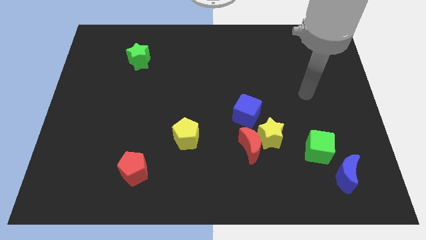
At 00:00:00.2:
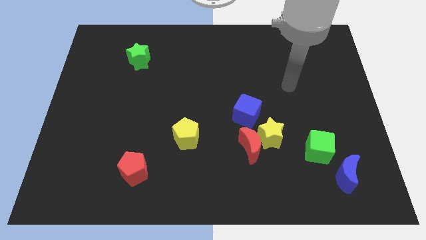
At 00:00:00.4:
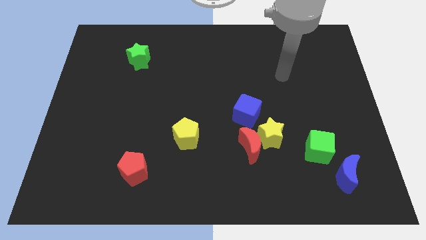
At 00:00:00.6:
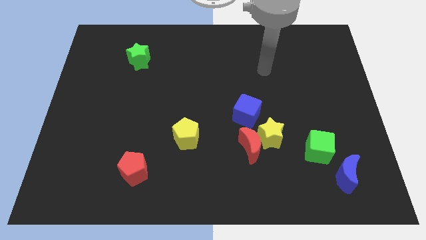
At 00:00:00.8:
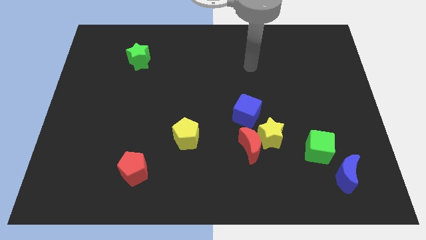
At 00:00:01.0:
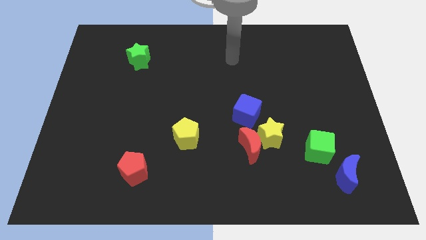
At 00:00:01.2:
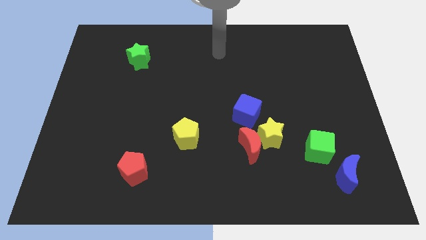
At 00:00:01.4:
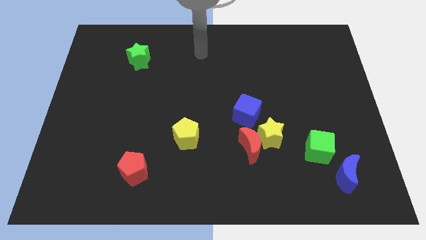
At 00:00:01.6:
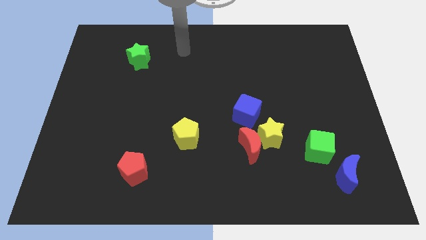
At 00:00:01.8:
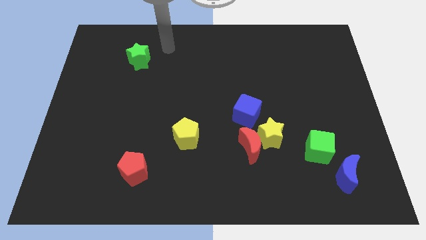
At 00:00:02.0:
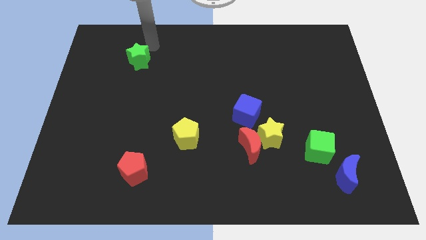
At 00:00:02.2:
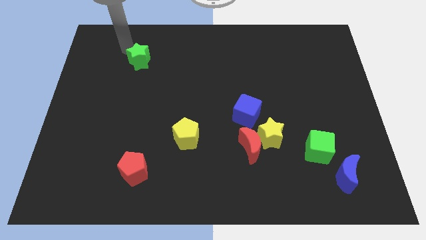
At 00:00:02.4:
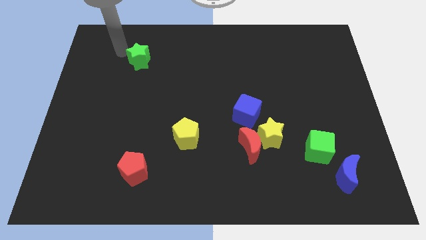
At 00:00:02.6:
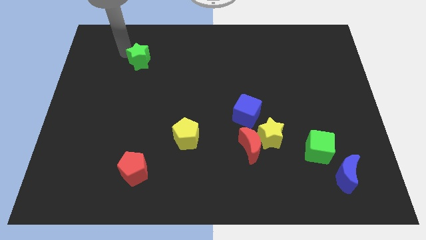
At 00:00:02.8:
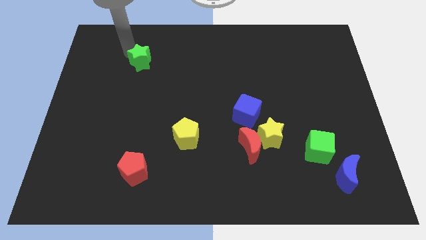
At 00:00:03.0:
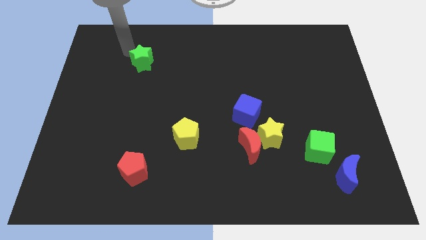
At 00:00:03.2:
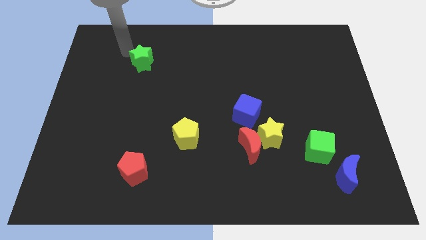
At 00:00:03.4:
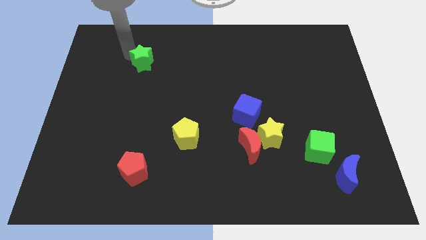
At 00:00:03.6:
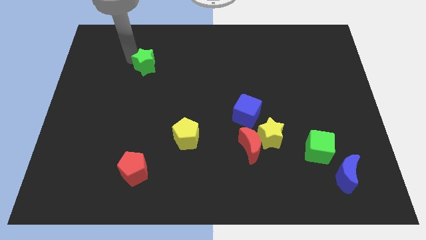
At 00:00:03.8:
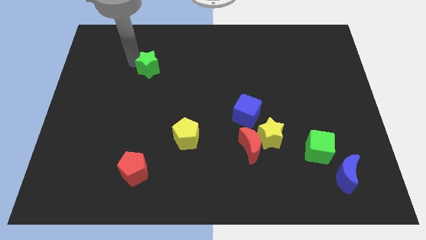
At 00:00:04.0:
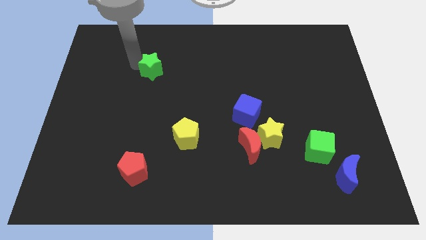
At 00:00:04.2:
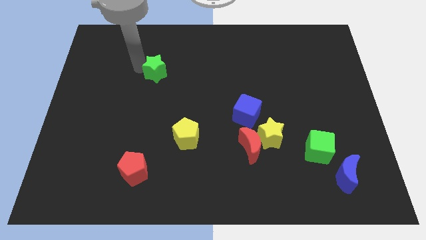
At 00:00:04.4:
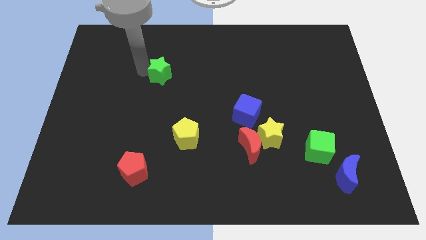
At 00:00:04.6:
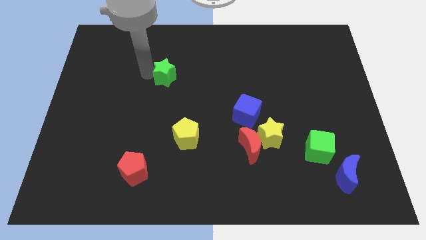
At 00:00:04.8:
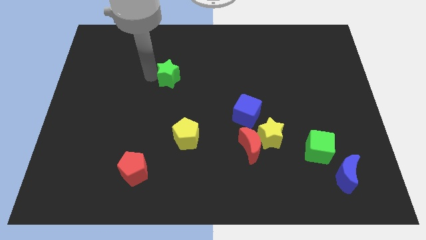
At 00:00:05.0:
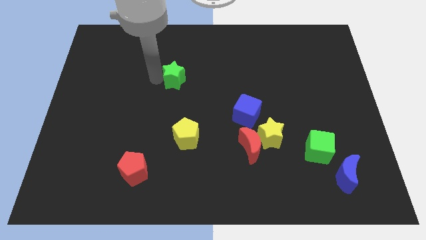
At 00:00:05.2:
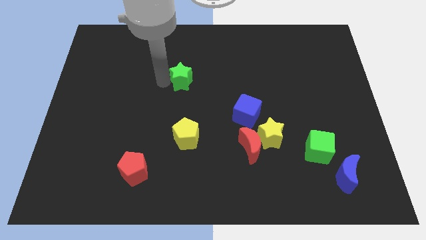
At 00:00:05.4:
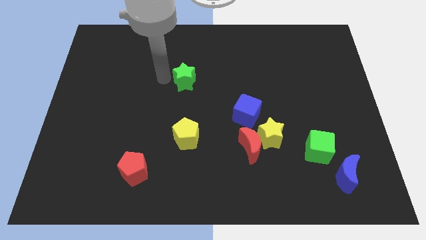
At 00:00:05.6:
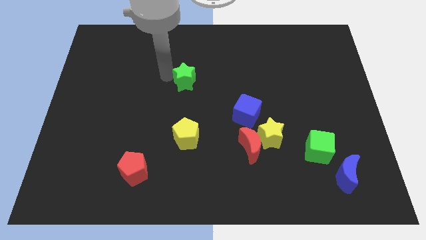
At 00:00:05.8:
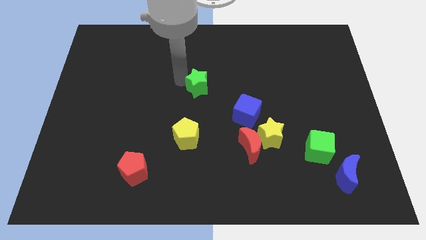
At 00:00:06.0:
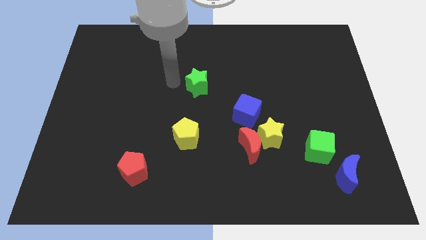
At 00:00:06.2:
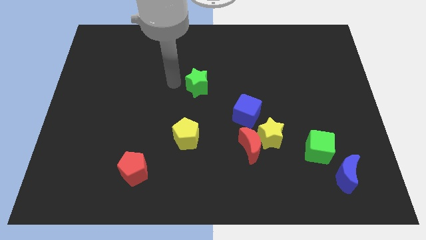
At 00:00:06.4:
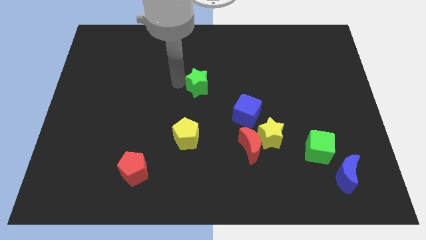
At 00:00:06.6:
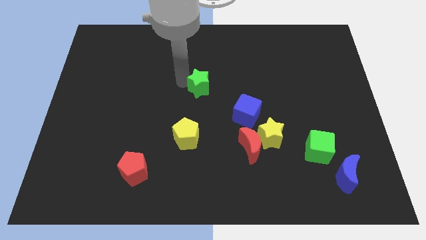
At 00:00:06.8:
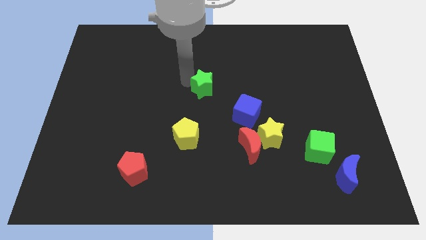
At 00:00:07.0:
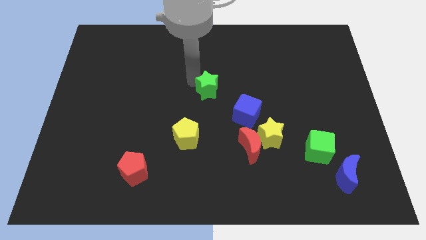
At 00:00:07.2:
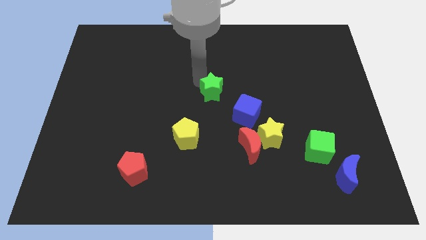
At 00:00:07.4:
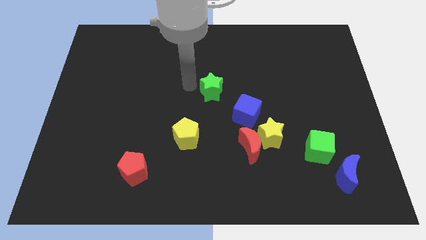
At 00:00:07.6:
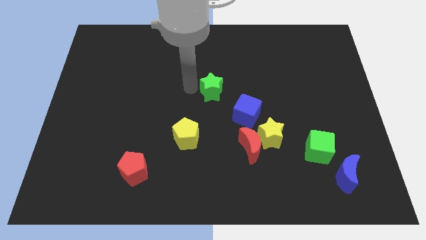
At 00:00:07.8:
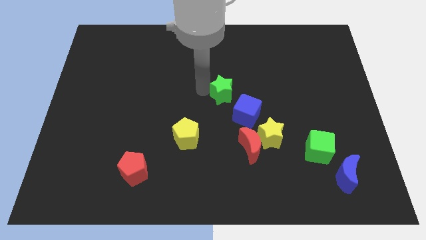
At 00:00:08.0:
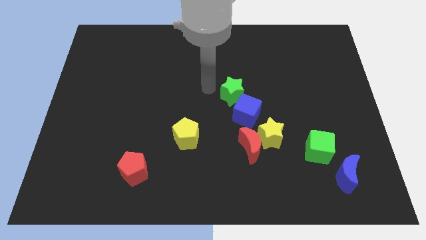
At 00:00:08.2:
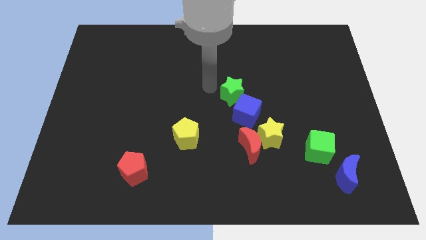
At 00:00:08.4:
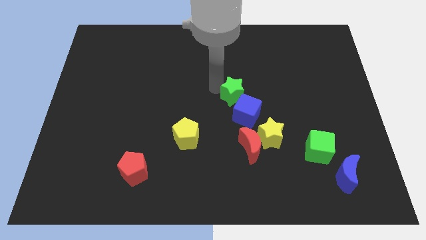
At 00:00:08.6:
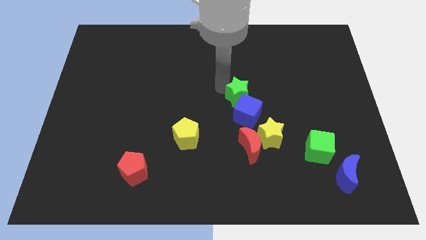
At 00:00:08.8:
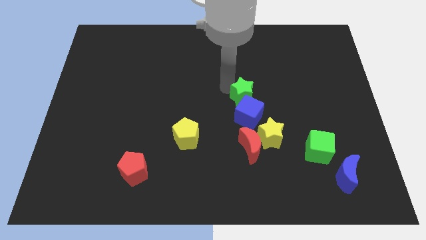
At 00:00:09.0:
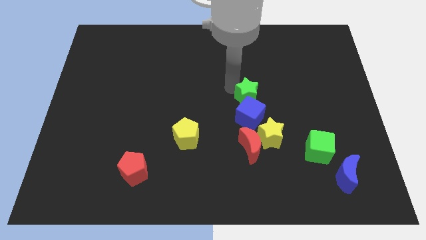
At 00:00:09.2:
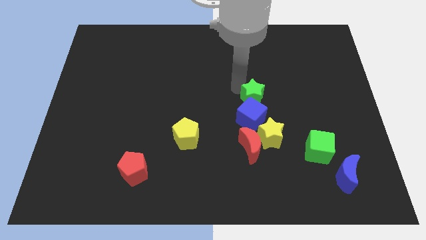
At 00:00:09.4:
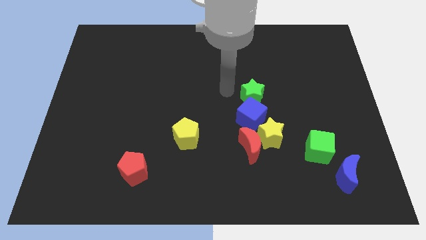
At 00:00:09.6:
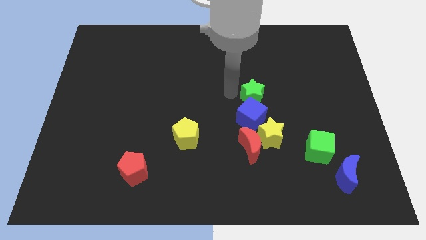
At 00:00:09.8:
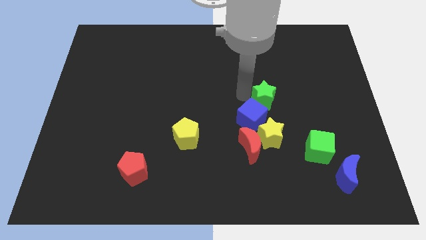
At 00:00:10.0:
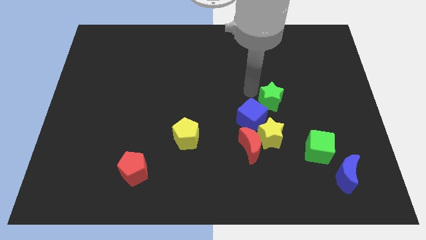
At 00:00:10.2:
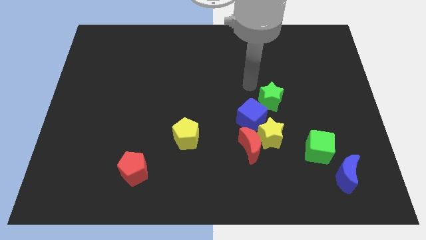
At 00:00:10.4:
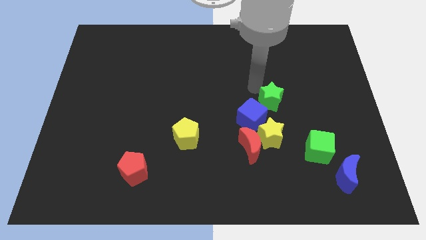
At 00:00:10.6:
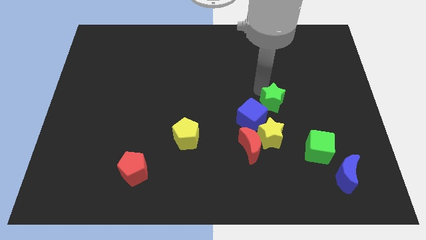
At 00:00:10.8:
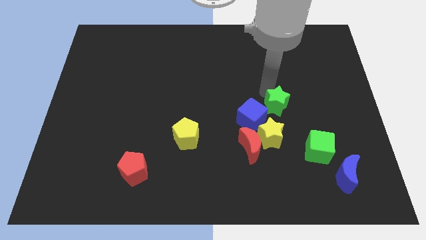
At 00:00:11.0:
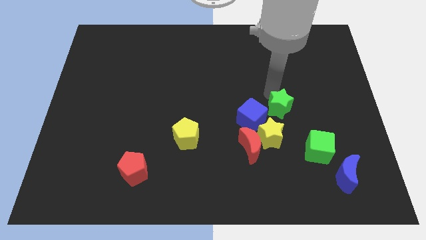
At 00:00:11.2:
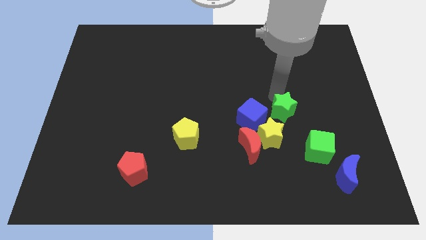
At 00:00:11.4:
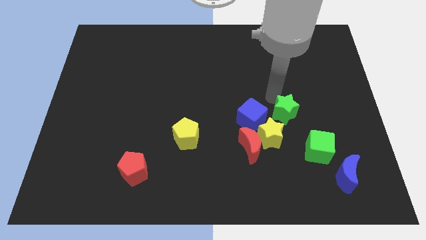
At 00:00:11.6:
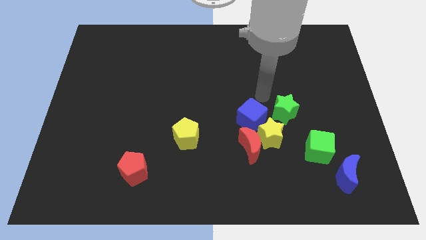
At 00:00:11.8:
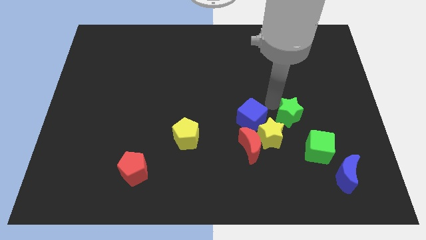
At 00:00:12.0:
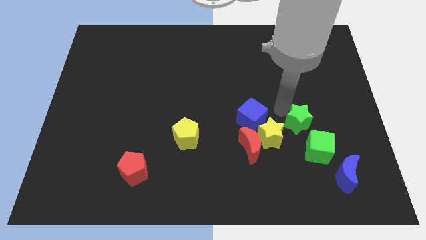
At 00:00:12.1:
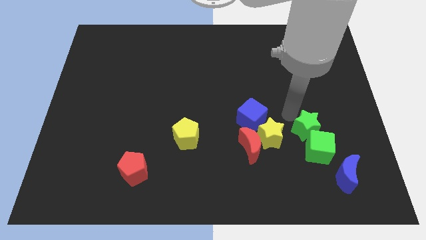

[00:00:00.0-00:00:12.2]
move the green star to the green cube

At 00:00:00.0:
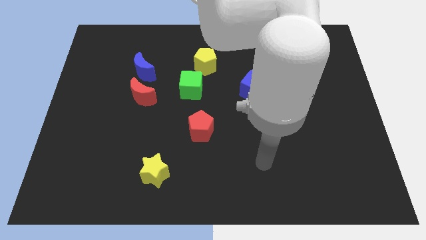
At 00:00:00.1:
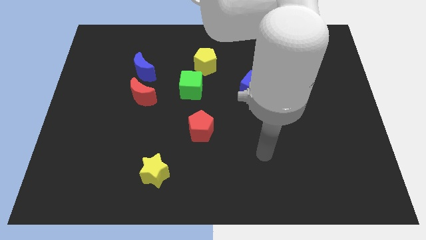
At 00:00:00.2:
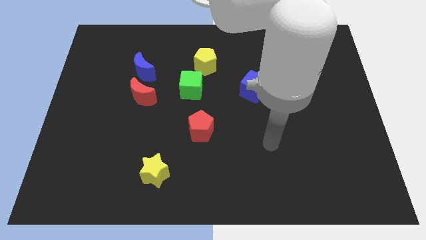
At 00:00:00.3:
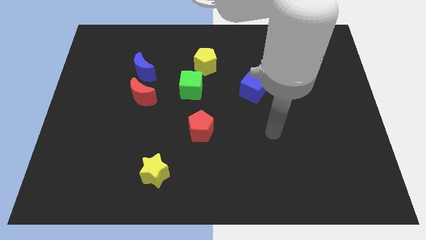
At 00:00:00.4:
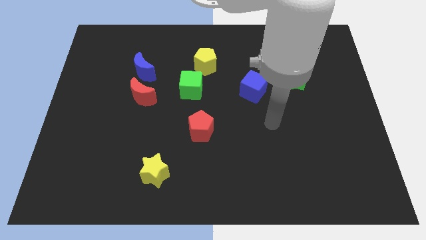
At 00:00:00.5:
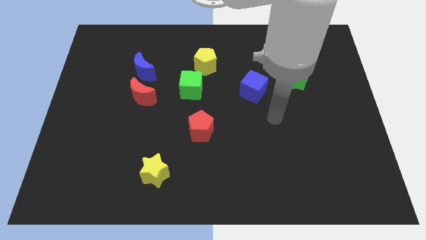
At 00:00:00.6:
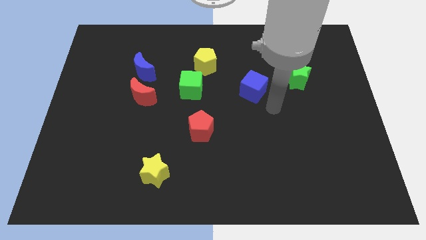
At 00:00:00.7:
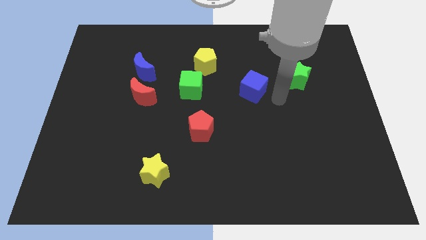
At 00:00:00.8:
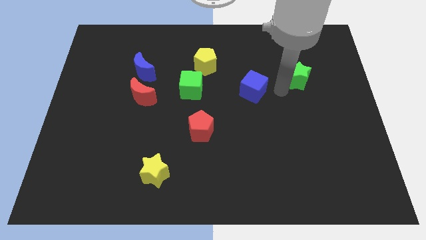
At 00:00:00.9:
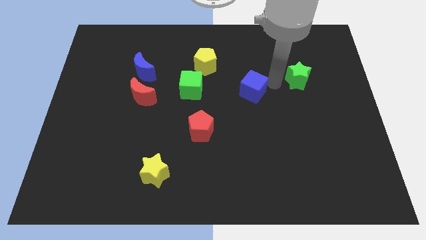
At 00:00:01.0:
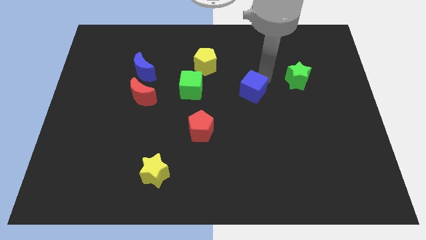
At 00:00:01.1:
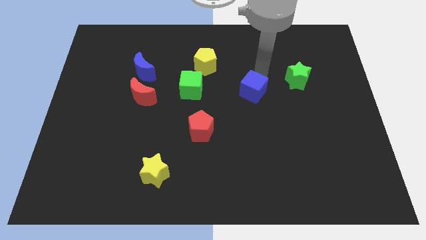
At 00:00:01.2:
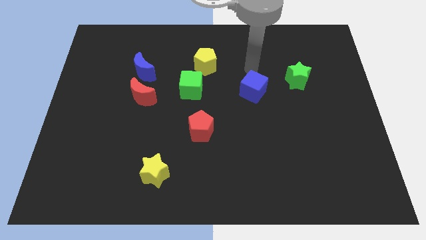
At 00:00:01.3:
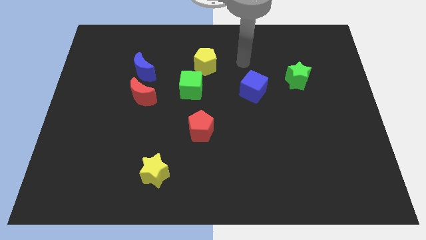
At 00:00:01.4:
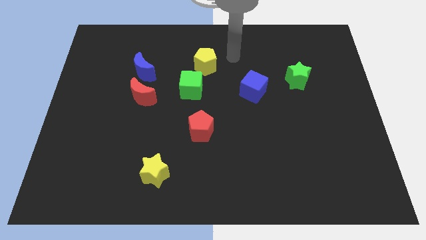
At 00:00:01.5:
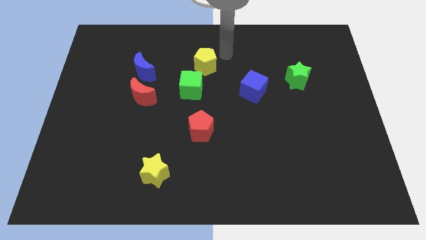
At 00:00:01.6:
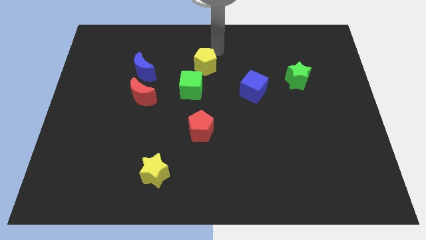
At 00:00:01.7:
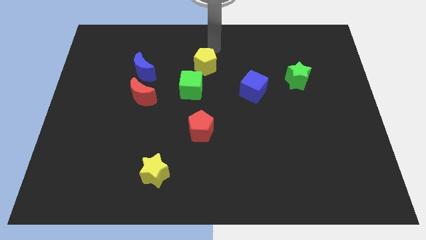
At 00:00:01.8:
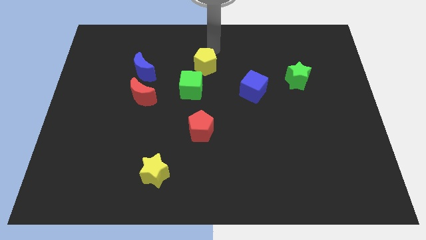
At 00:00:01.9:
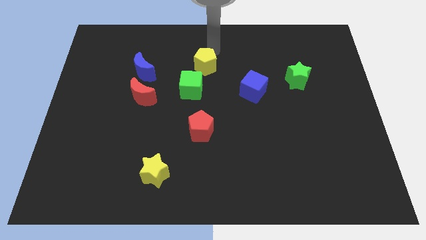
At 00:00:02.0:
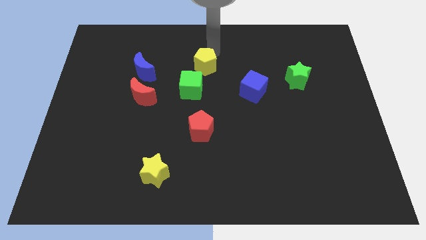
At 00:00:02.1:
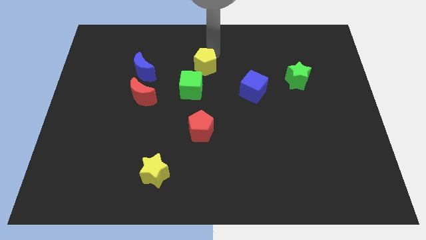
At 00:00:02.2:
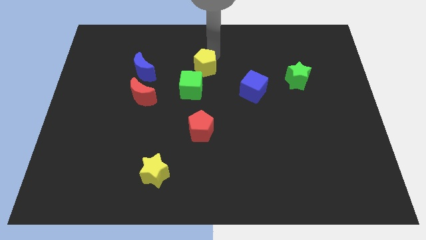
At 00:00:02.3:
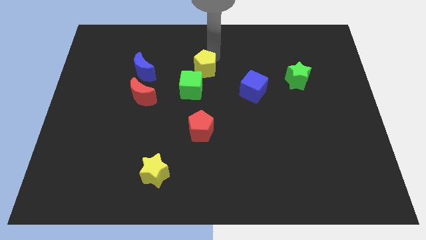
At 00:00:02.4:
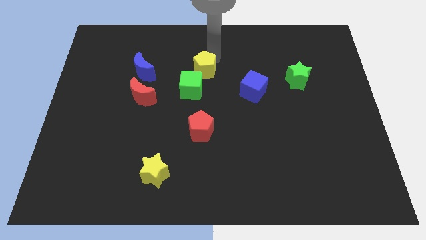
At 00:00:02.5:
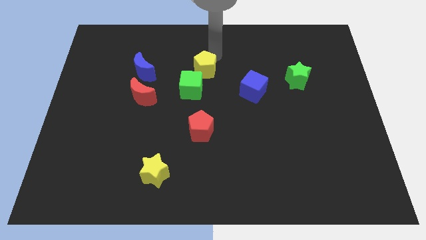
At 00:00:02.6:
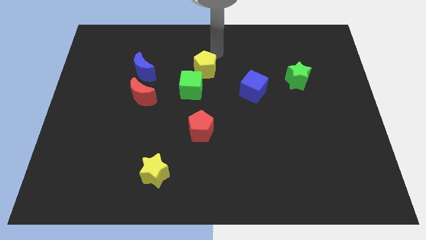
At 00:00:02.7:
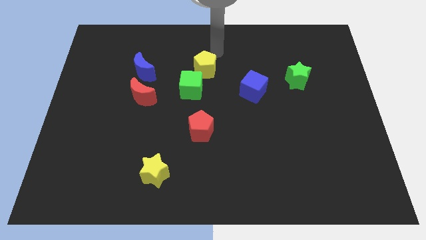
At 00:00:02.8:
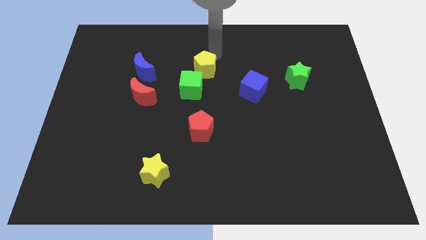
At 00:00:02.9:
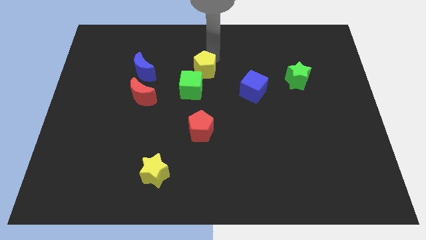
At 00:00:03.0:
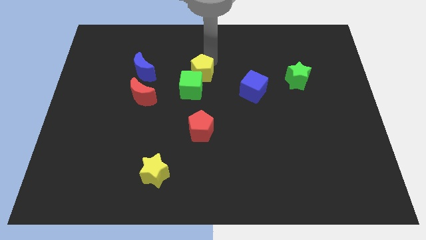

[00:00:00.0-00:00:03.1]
push the yellow pentagon next to the green cube
